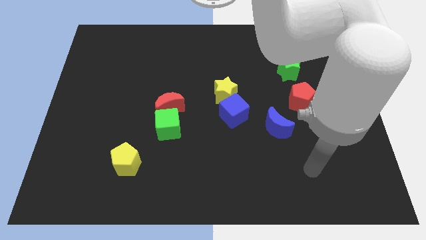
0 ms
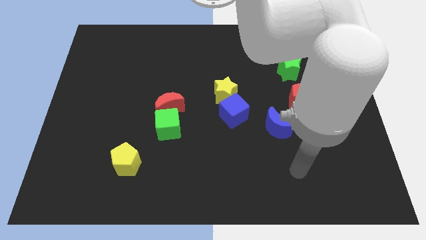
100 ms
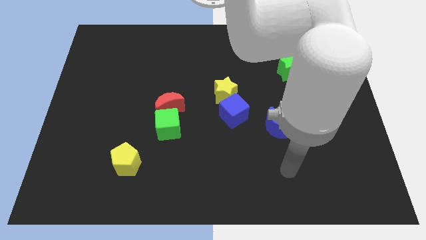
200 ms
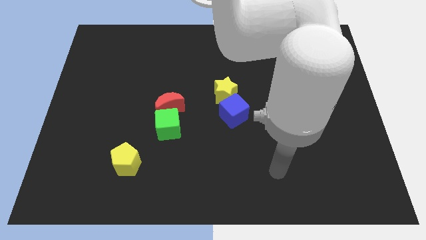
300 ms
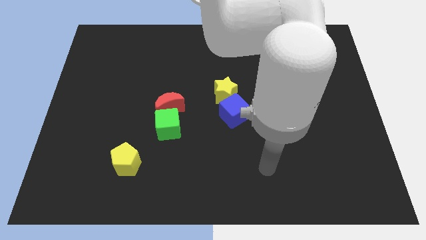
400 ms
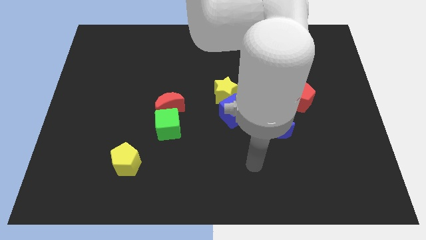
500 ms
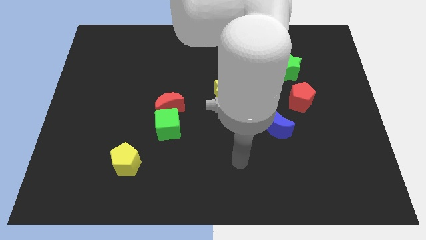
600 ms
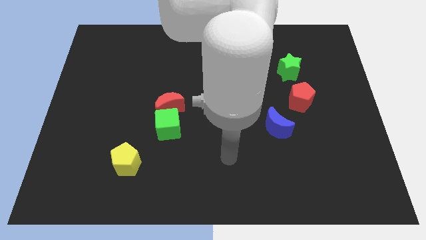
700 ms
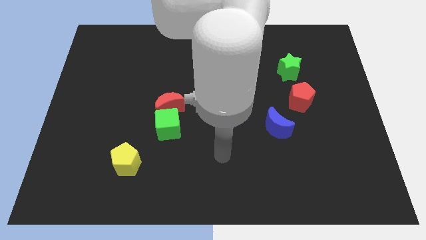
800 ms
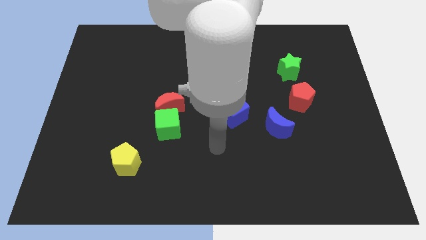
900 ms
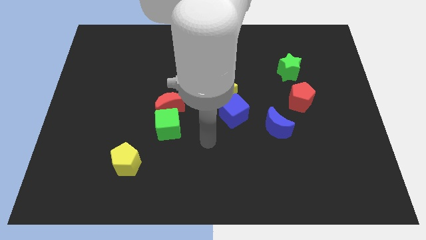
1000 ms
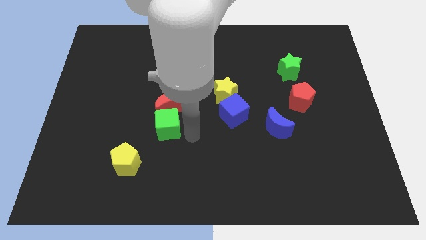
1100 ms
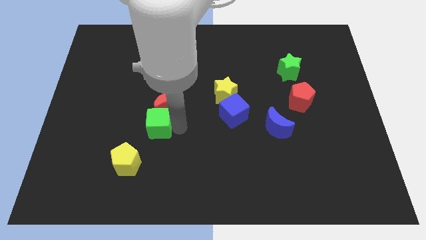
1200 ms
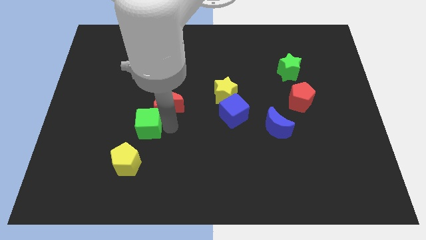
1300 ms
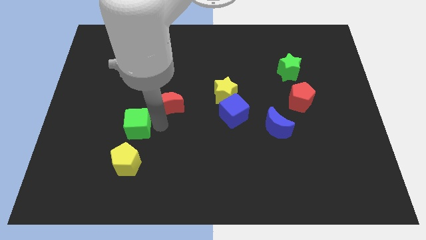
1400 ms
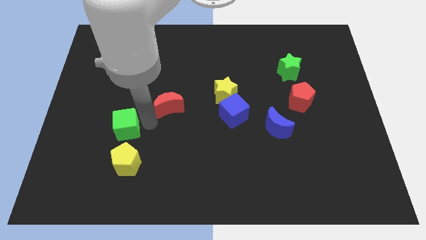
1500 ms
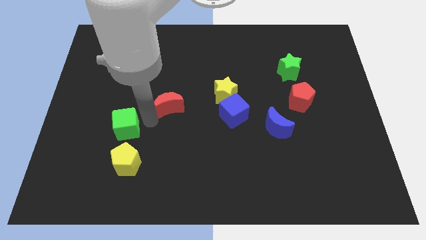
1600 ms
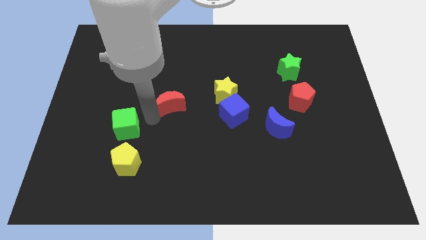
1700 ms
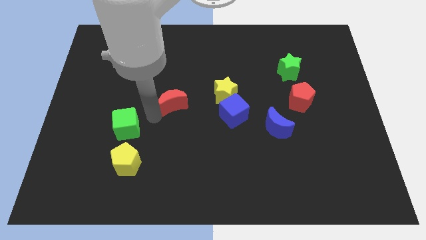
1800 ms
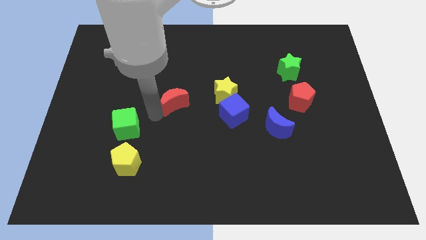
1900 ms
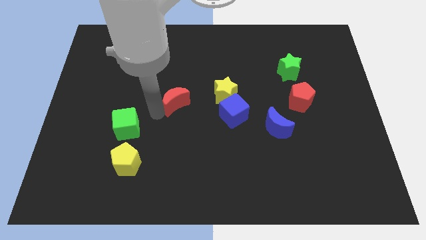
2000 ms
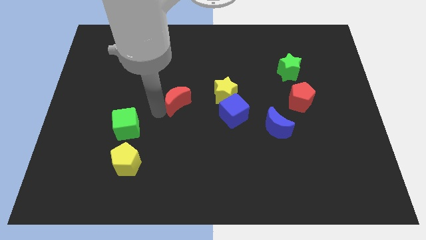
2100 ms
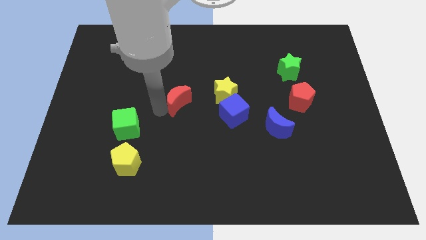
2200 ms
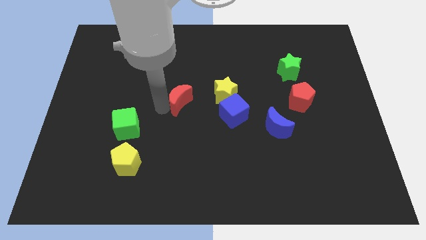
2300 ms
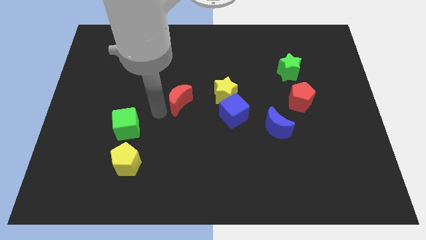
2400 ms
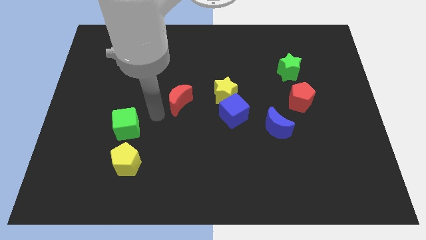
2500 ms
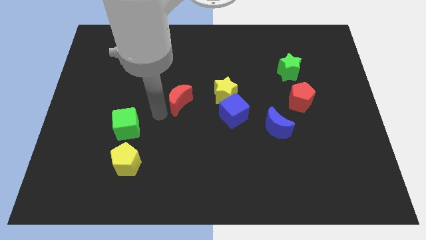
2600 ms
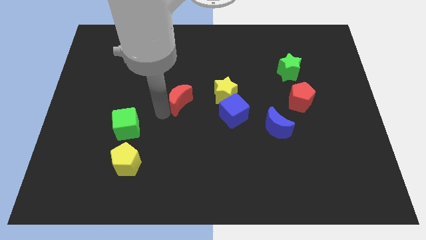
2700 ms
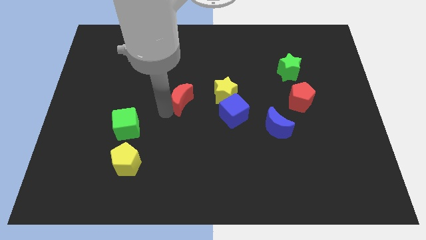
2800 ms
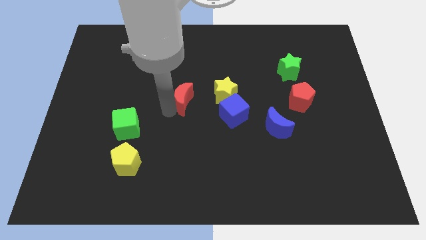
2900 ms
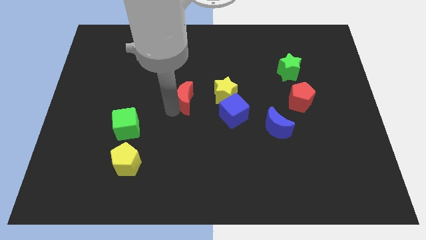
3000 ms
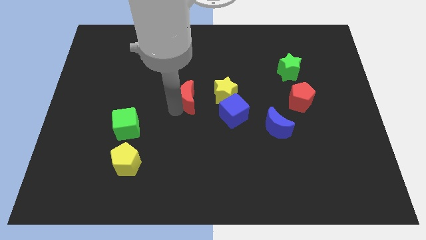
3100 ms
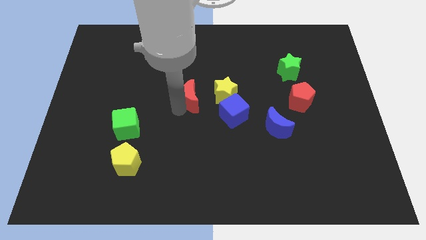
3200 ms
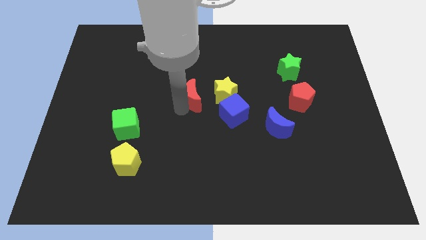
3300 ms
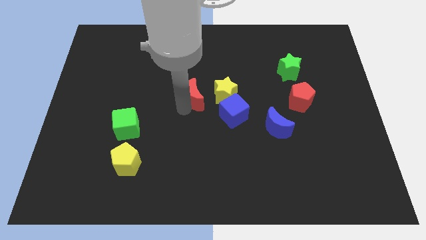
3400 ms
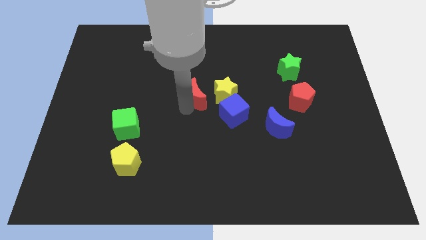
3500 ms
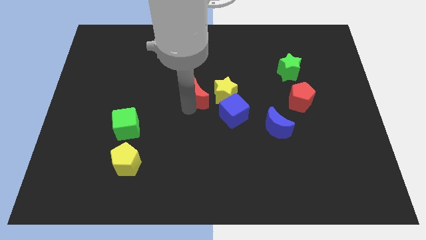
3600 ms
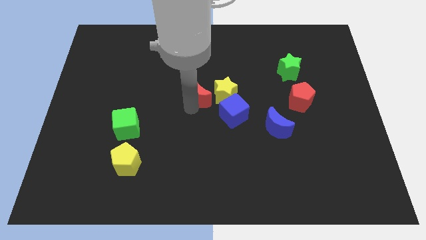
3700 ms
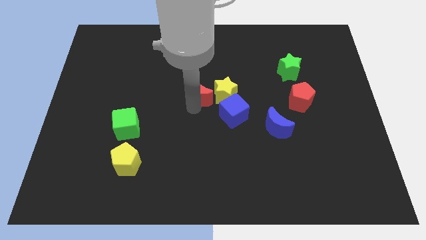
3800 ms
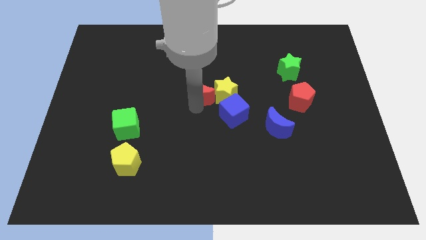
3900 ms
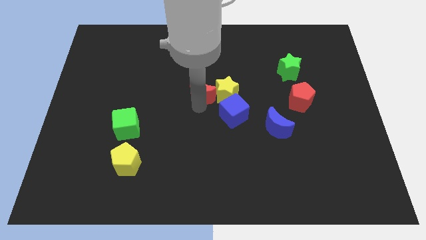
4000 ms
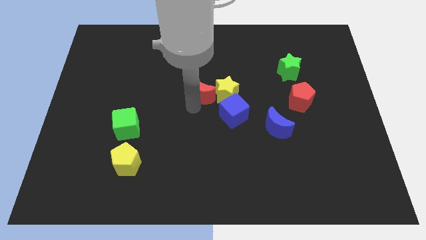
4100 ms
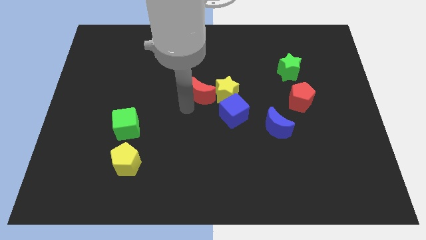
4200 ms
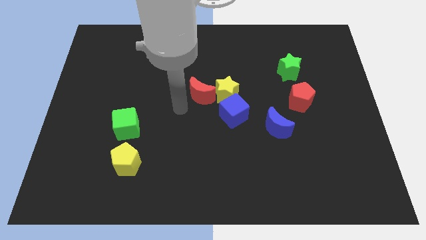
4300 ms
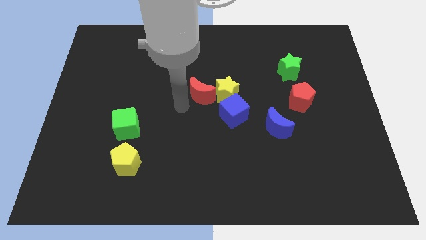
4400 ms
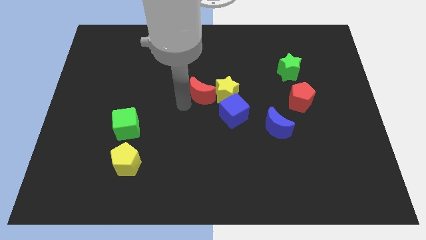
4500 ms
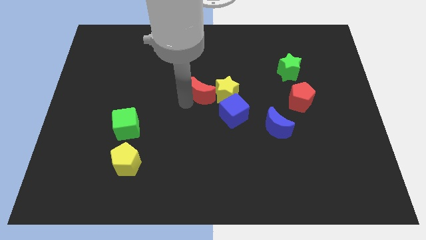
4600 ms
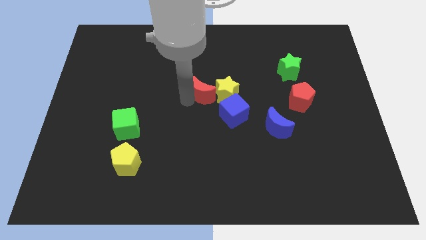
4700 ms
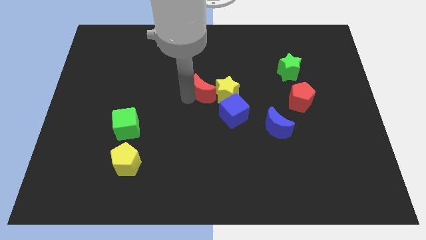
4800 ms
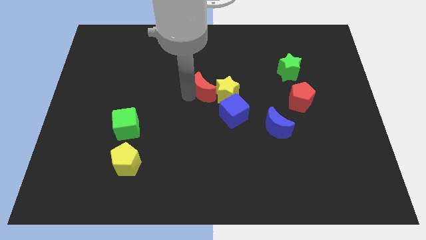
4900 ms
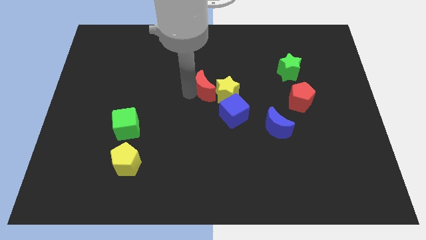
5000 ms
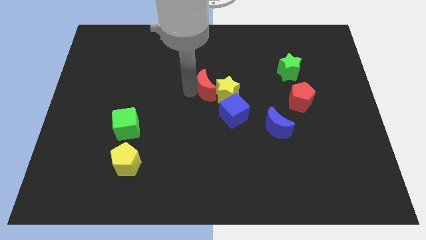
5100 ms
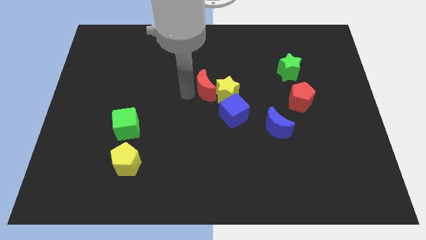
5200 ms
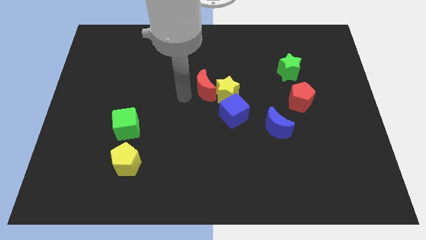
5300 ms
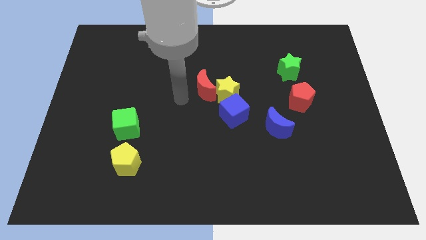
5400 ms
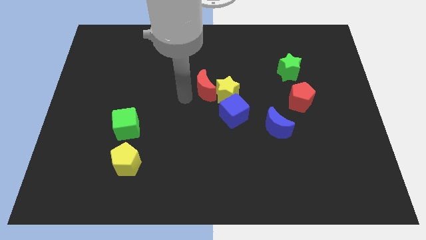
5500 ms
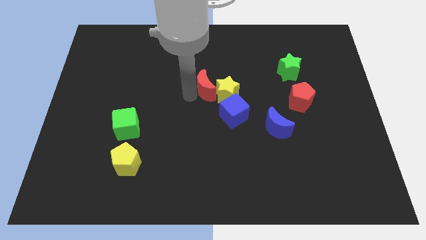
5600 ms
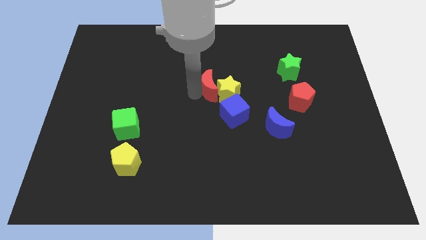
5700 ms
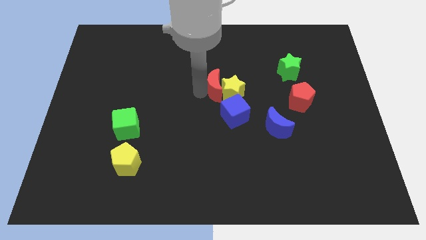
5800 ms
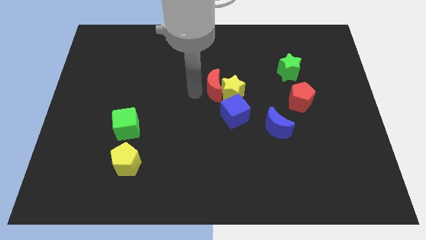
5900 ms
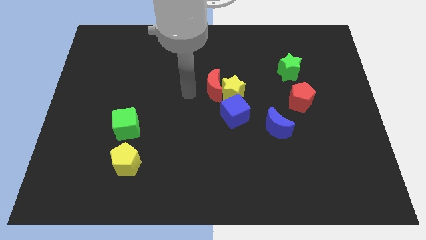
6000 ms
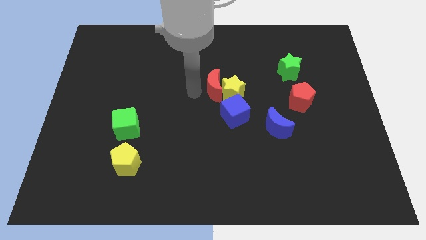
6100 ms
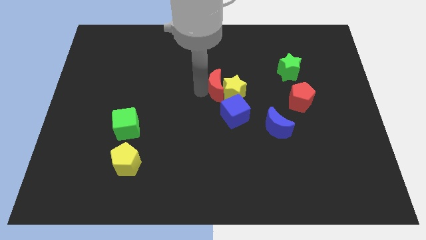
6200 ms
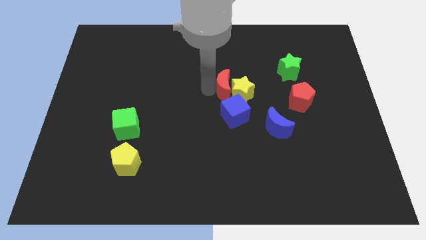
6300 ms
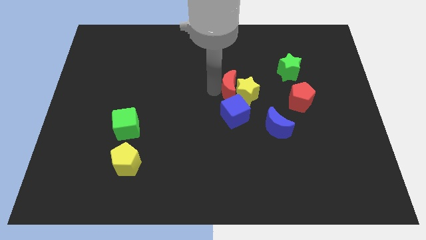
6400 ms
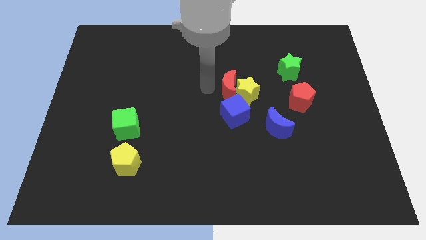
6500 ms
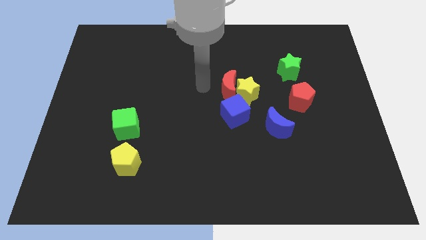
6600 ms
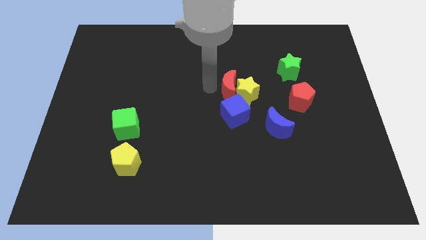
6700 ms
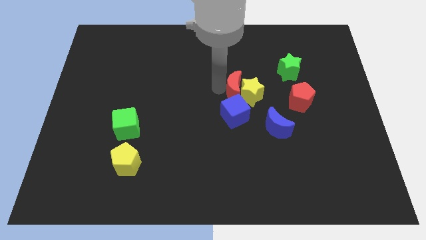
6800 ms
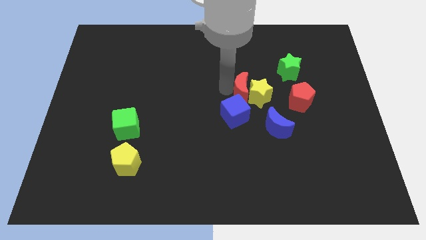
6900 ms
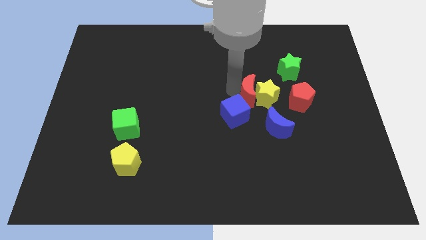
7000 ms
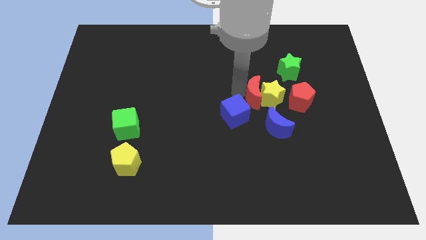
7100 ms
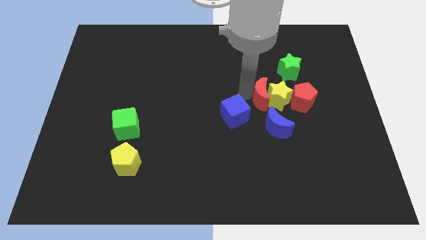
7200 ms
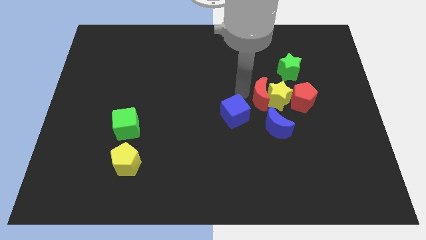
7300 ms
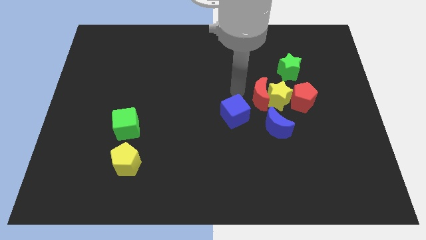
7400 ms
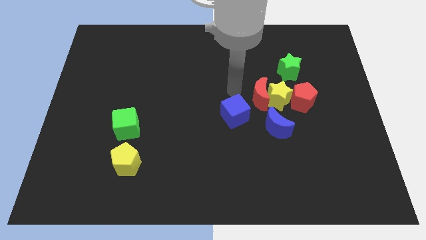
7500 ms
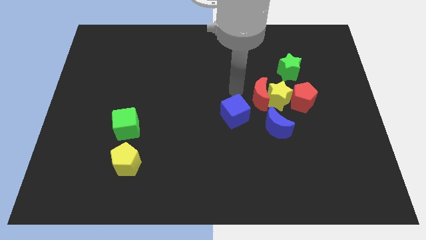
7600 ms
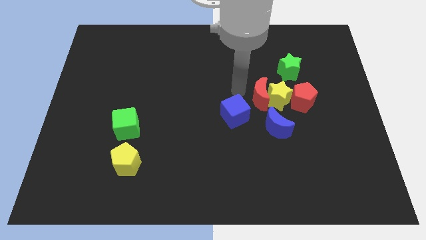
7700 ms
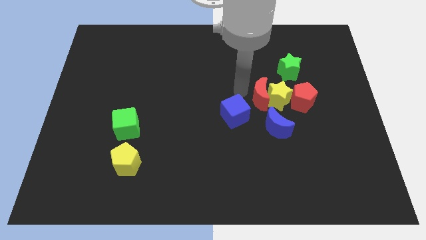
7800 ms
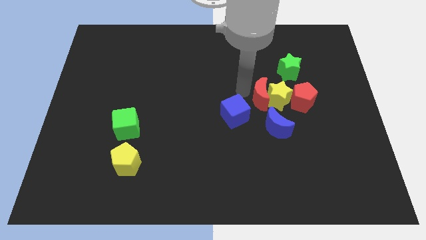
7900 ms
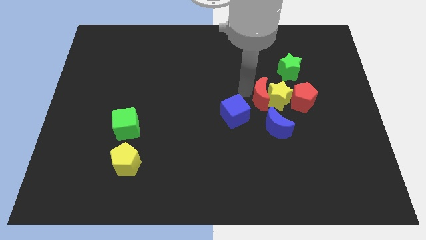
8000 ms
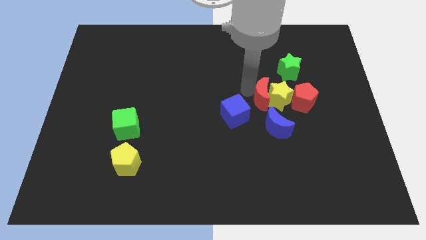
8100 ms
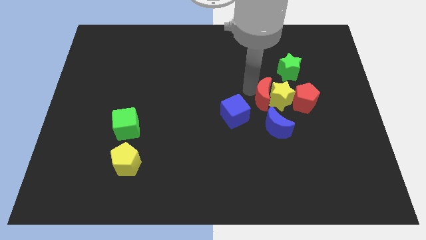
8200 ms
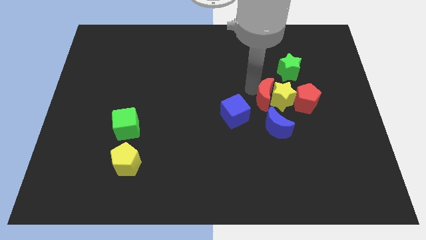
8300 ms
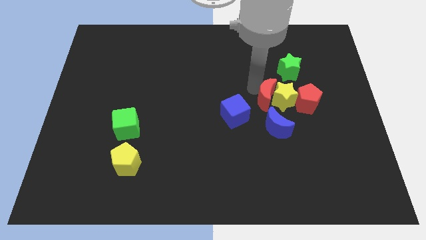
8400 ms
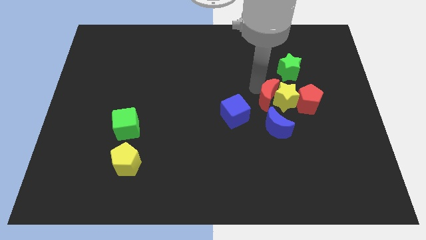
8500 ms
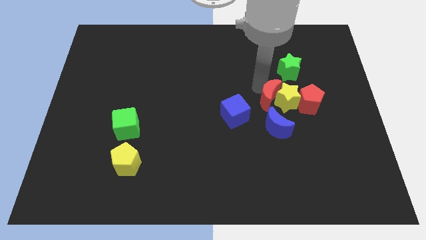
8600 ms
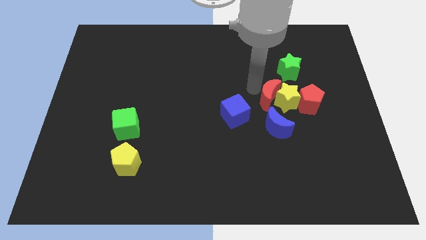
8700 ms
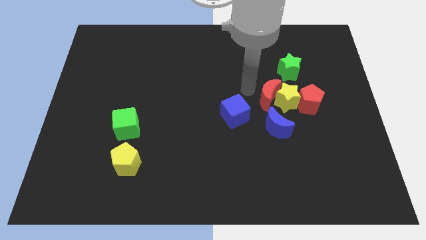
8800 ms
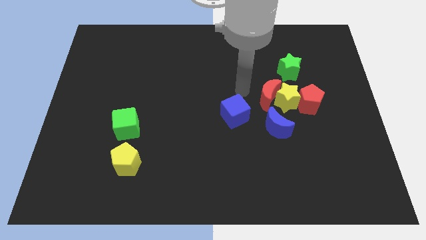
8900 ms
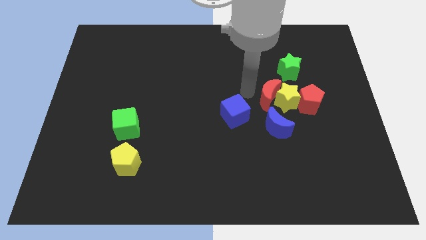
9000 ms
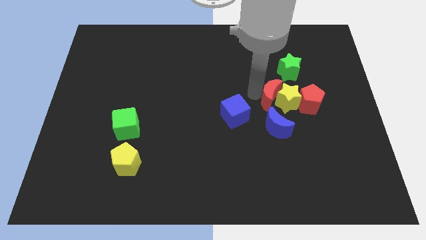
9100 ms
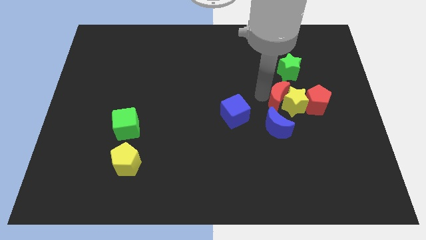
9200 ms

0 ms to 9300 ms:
put the red moon below the green star
